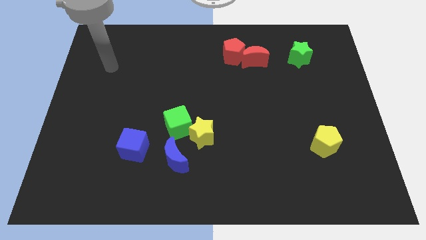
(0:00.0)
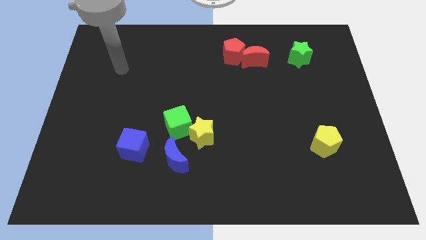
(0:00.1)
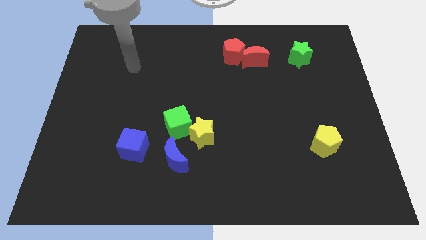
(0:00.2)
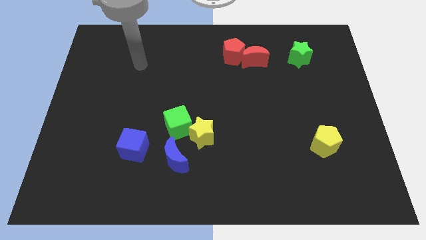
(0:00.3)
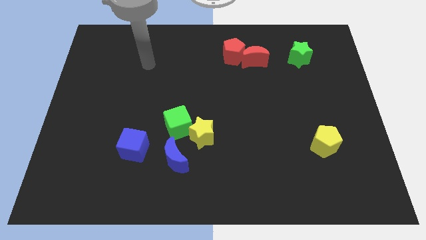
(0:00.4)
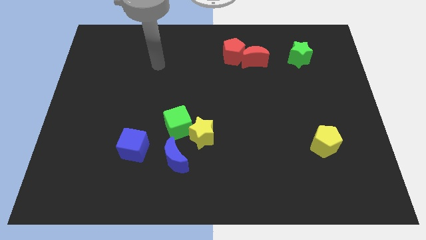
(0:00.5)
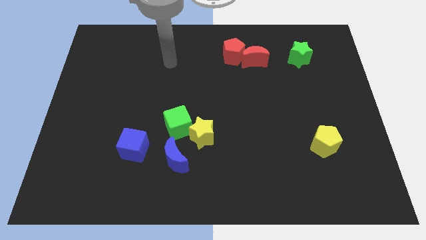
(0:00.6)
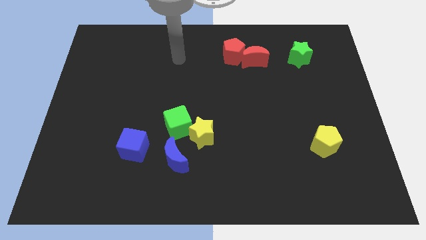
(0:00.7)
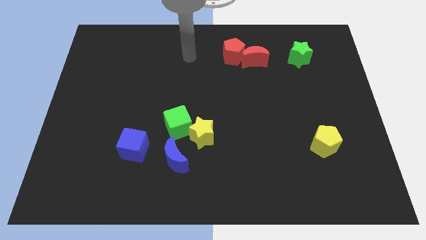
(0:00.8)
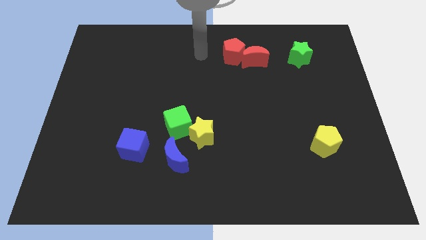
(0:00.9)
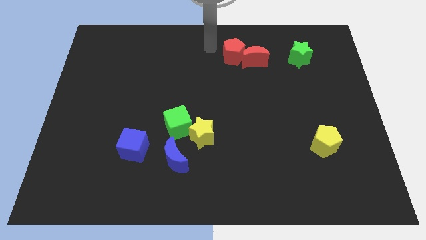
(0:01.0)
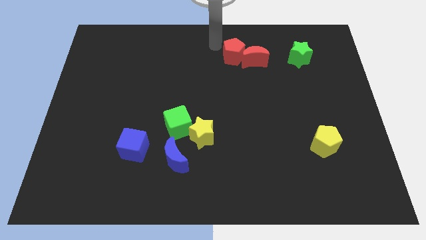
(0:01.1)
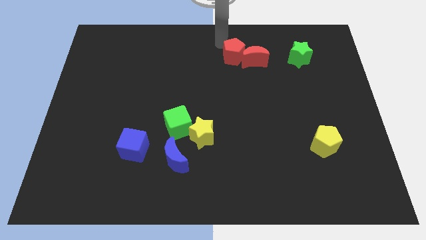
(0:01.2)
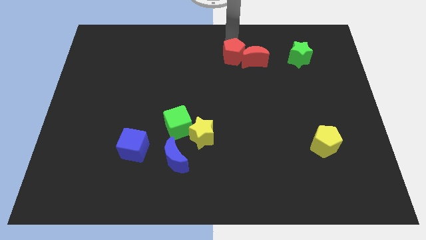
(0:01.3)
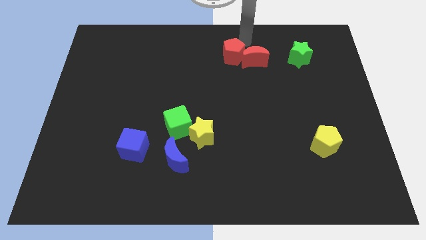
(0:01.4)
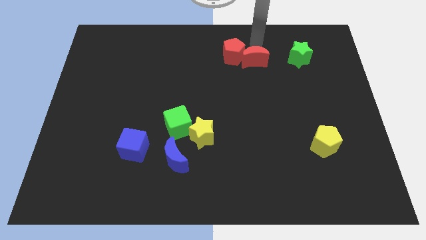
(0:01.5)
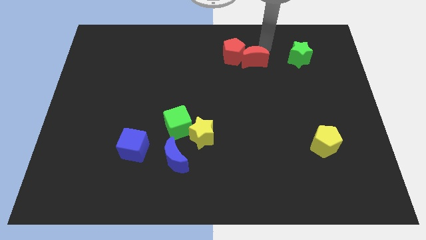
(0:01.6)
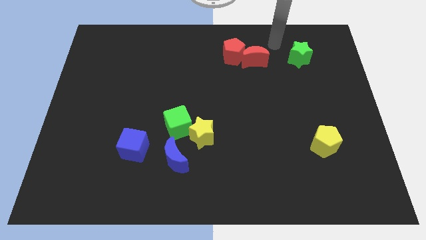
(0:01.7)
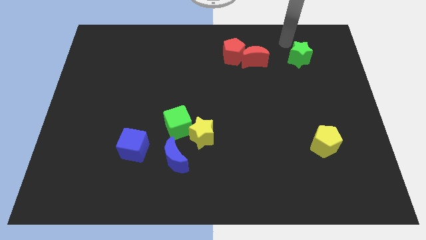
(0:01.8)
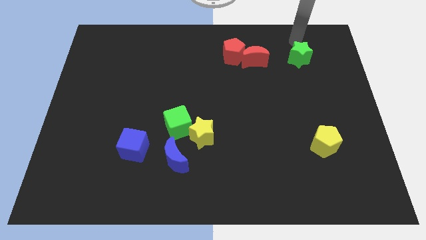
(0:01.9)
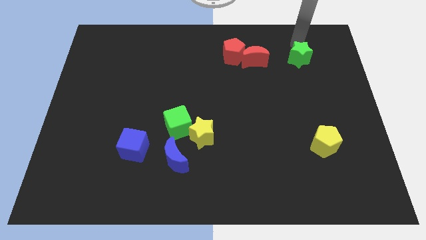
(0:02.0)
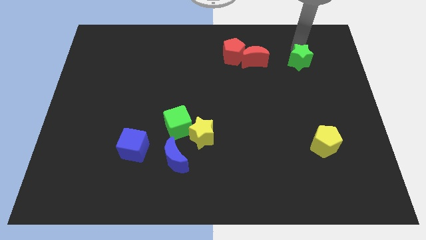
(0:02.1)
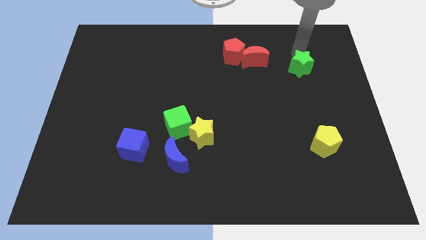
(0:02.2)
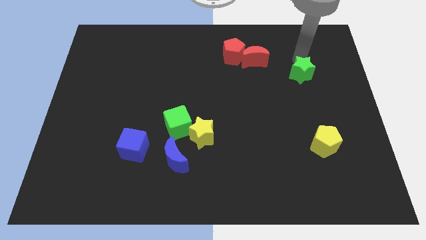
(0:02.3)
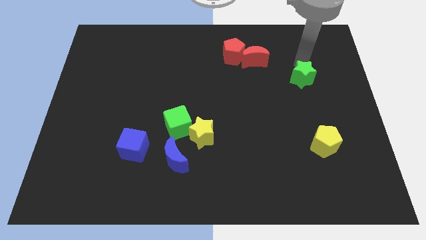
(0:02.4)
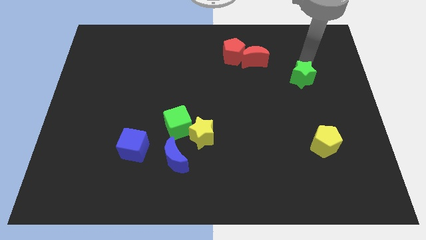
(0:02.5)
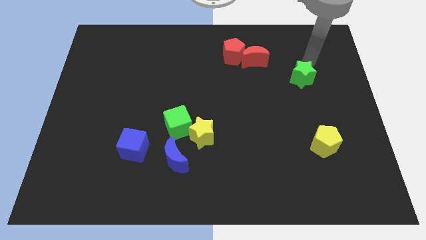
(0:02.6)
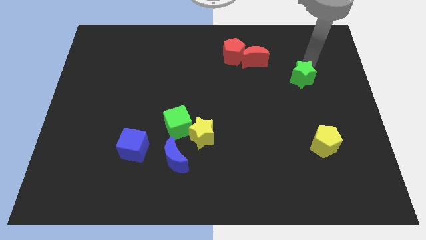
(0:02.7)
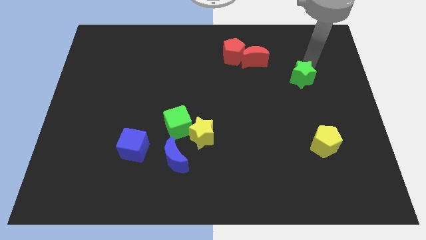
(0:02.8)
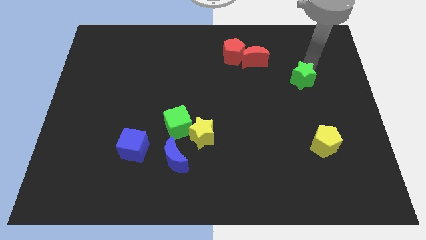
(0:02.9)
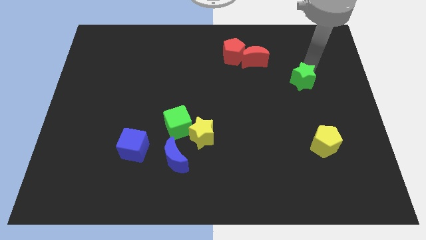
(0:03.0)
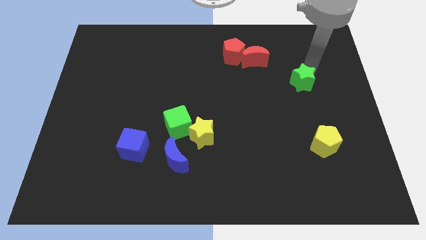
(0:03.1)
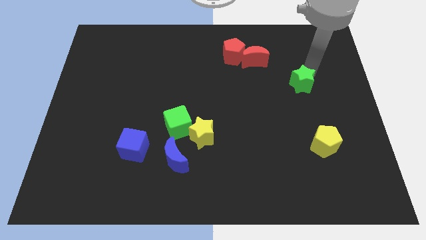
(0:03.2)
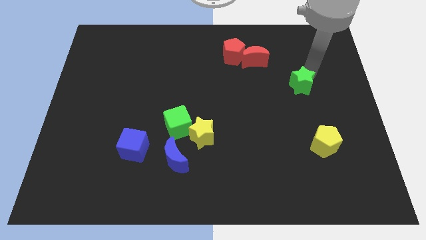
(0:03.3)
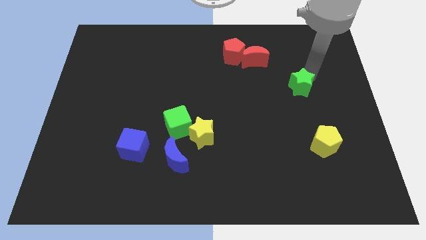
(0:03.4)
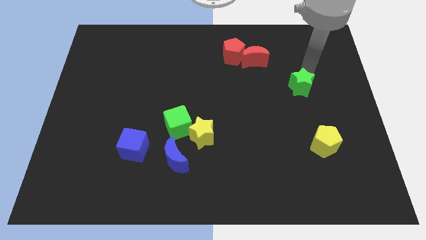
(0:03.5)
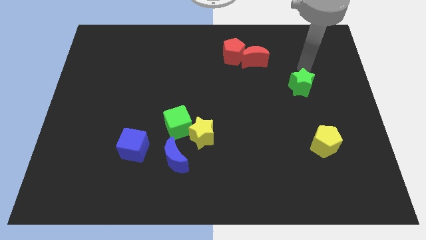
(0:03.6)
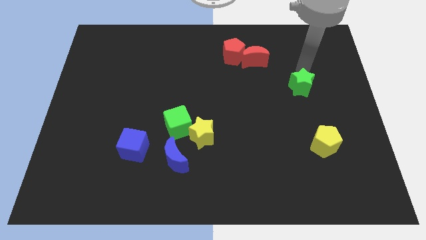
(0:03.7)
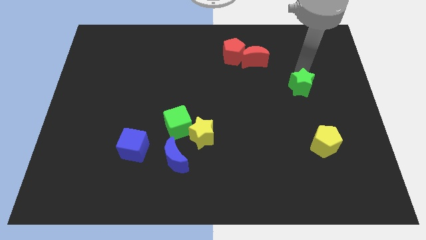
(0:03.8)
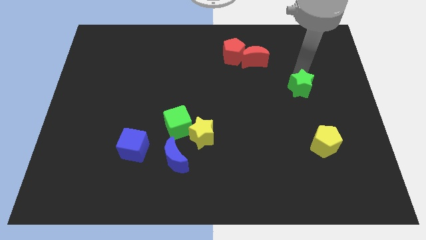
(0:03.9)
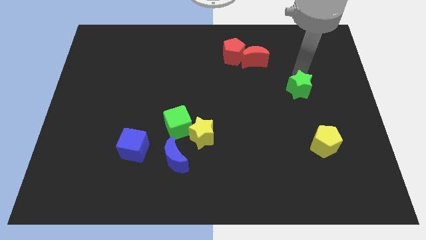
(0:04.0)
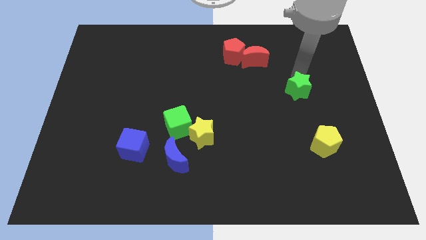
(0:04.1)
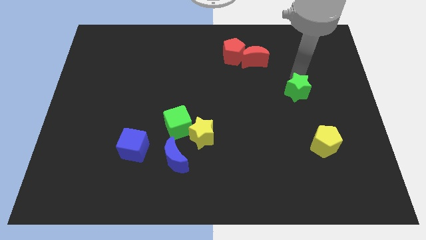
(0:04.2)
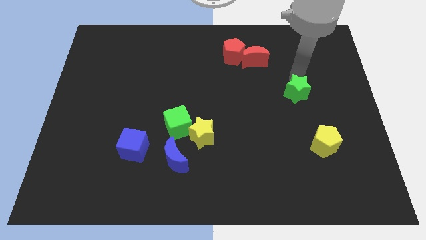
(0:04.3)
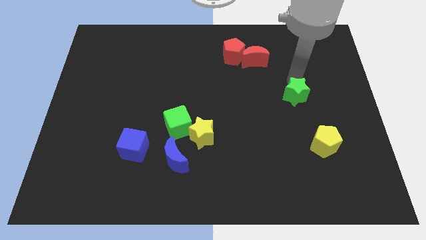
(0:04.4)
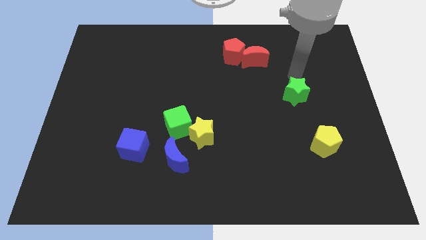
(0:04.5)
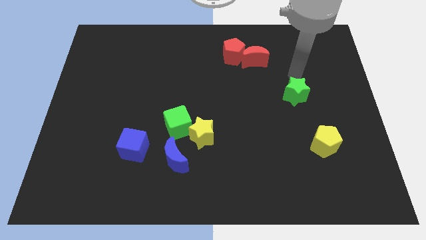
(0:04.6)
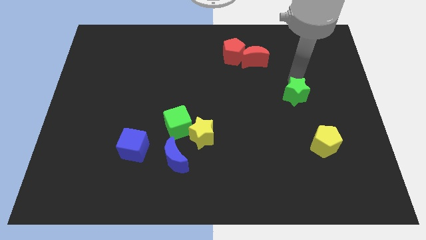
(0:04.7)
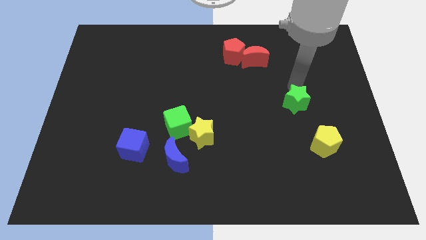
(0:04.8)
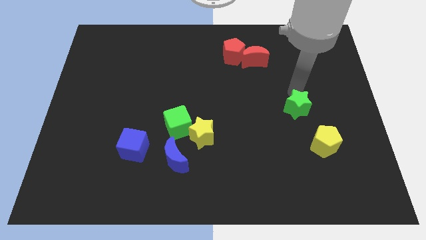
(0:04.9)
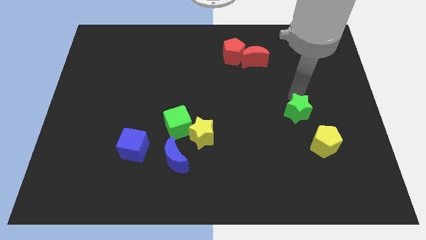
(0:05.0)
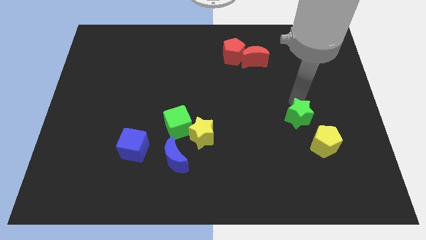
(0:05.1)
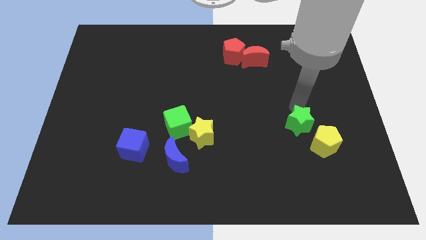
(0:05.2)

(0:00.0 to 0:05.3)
push the green star down

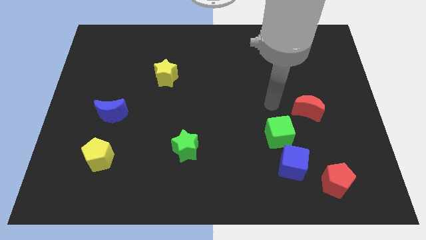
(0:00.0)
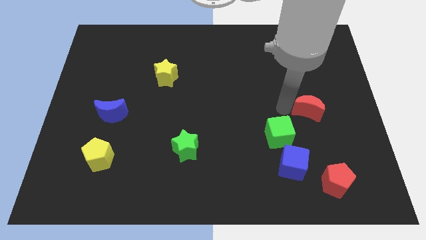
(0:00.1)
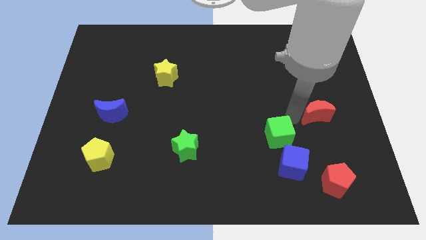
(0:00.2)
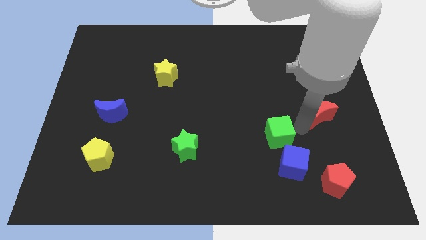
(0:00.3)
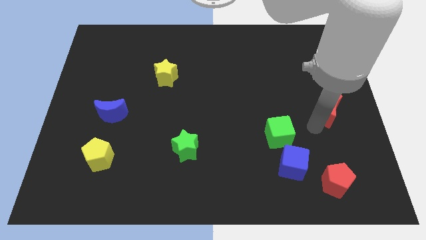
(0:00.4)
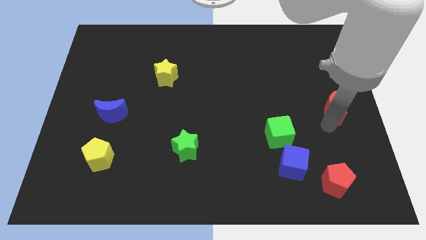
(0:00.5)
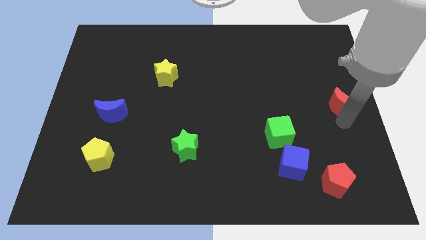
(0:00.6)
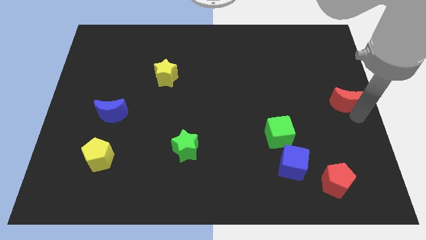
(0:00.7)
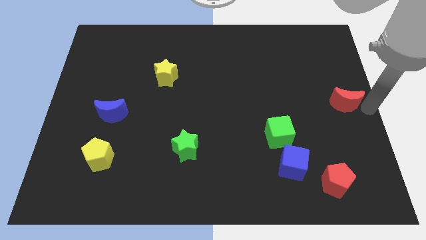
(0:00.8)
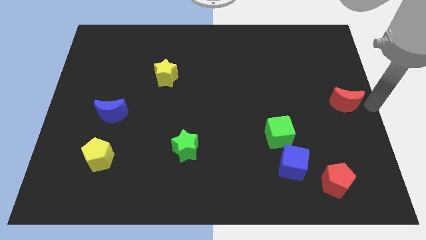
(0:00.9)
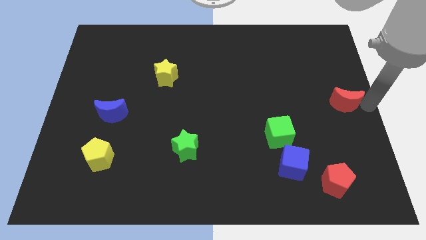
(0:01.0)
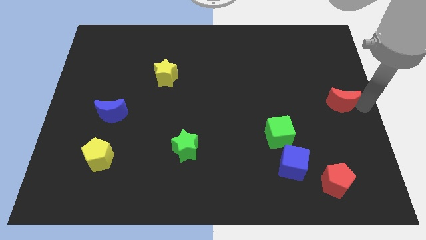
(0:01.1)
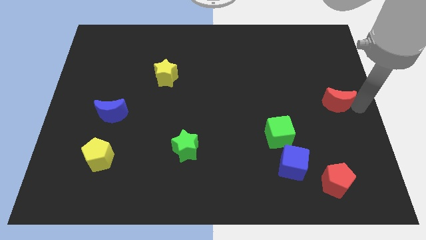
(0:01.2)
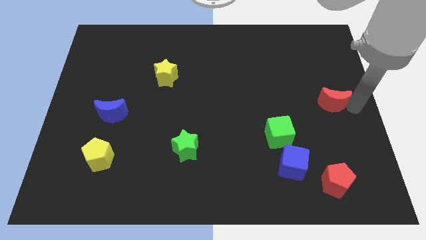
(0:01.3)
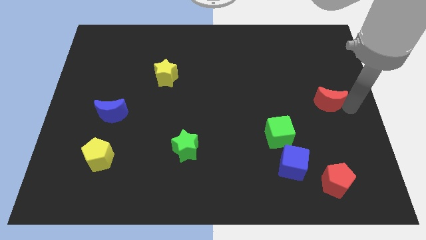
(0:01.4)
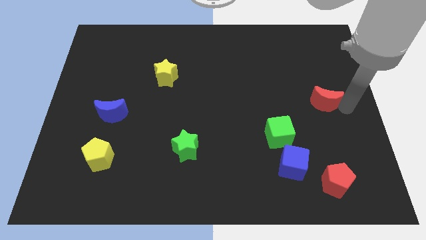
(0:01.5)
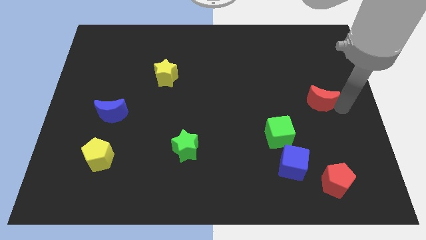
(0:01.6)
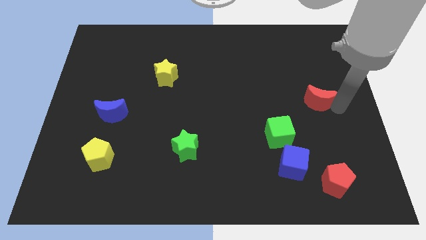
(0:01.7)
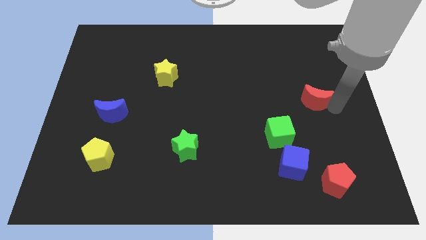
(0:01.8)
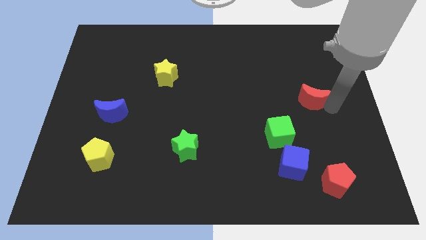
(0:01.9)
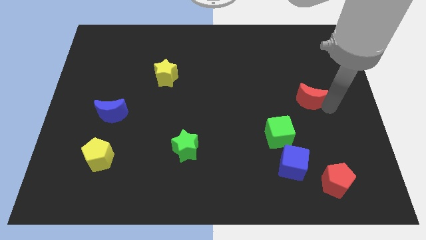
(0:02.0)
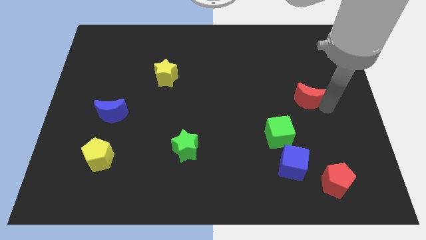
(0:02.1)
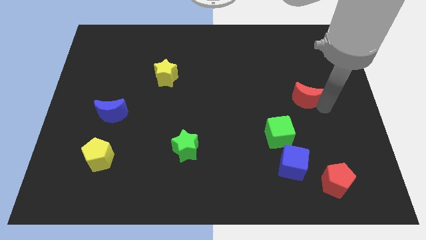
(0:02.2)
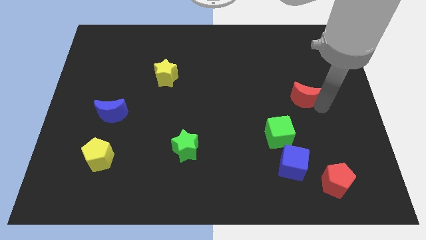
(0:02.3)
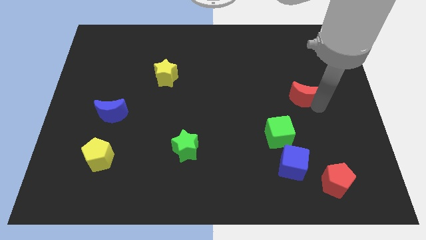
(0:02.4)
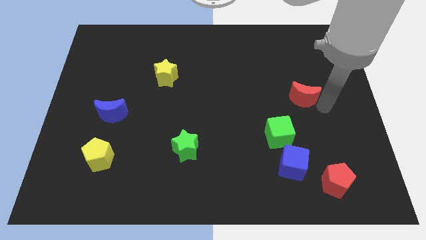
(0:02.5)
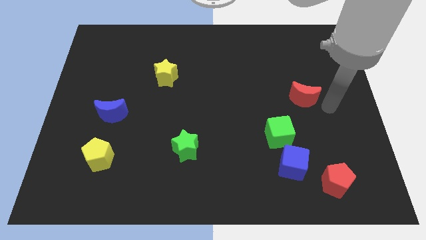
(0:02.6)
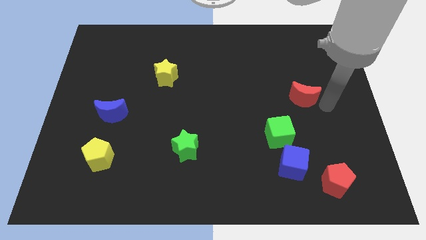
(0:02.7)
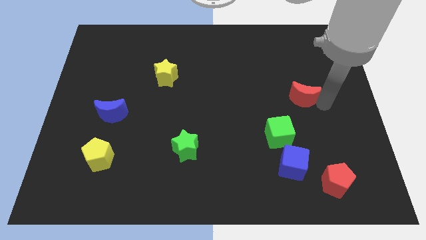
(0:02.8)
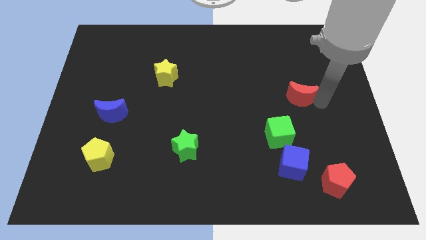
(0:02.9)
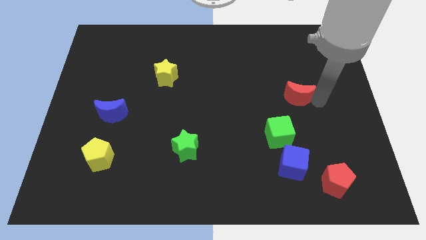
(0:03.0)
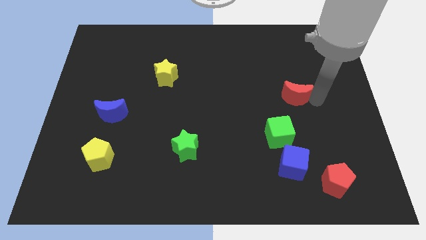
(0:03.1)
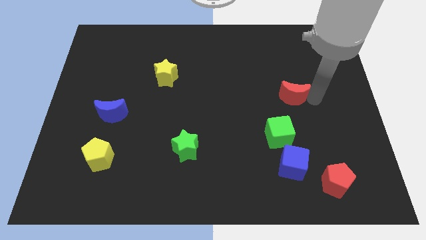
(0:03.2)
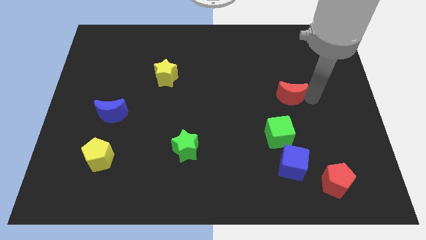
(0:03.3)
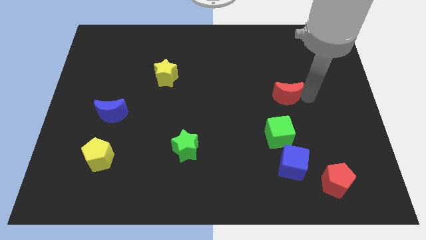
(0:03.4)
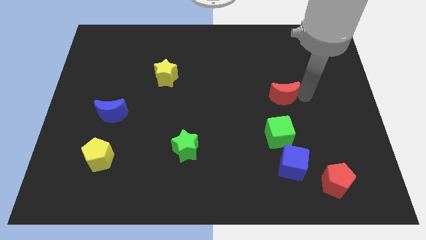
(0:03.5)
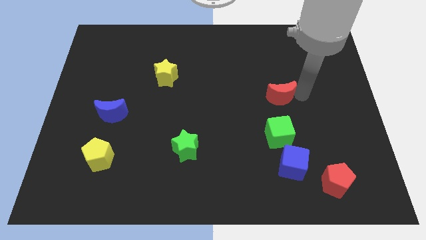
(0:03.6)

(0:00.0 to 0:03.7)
slide the red moon a little bit upwards and left
